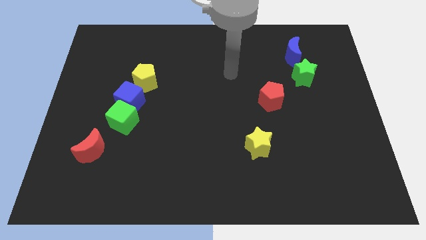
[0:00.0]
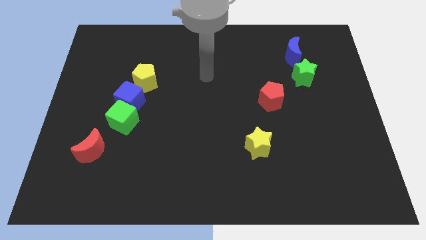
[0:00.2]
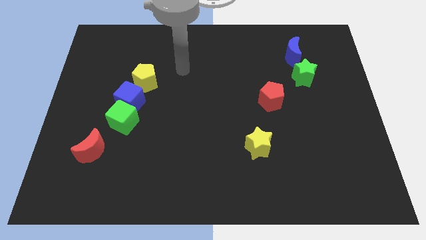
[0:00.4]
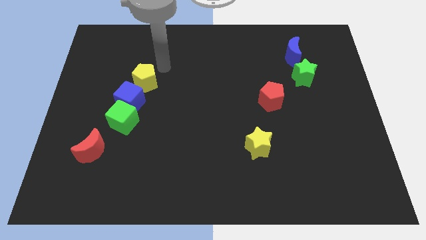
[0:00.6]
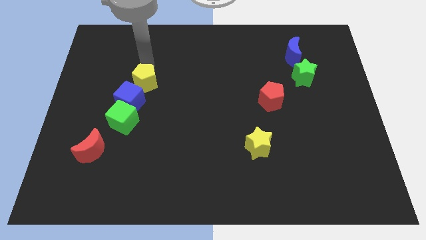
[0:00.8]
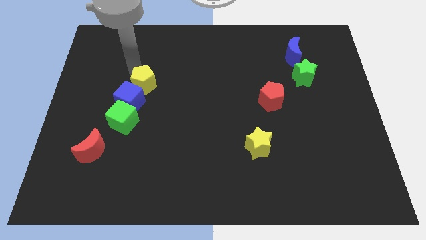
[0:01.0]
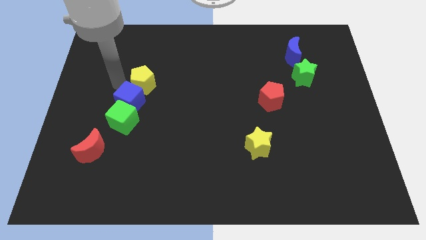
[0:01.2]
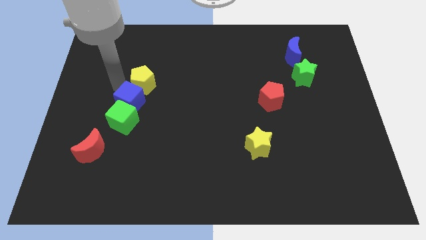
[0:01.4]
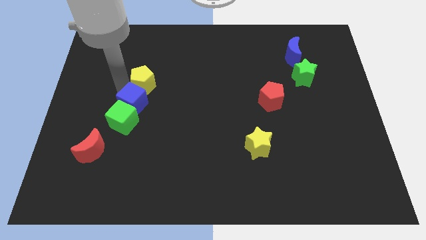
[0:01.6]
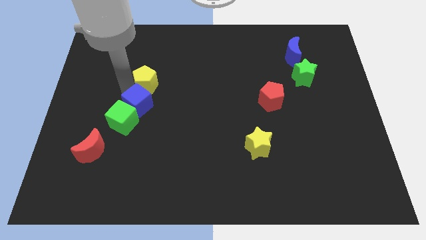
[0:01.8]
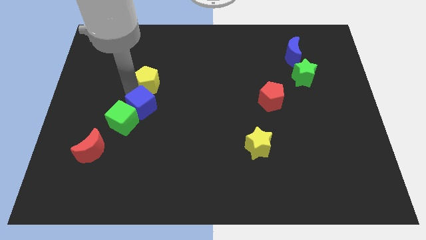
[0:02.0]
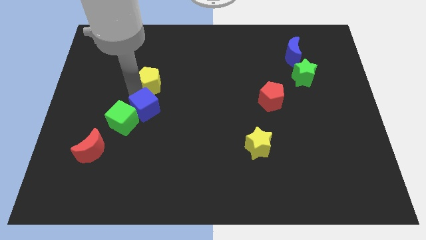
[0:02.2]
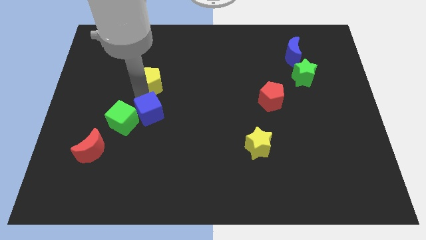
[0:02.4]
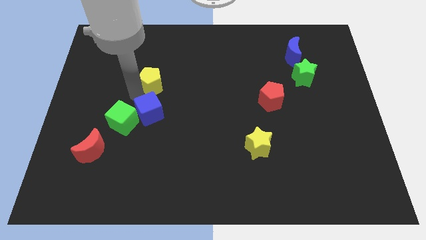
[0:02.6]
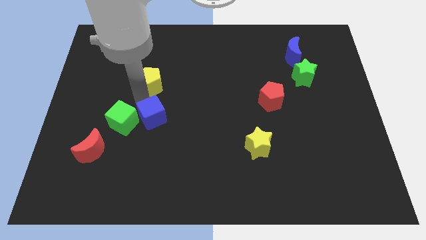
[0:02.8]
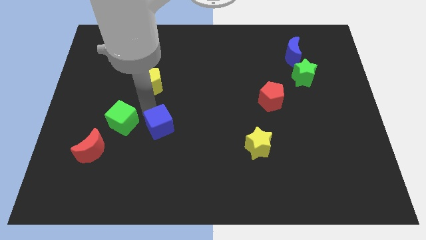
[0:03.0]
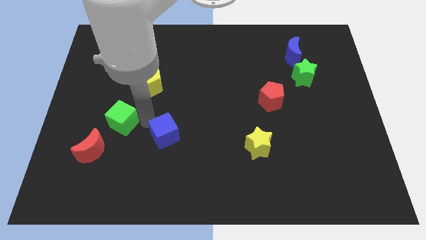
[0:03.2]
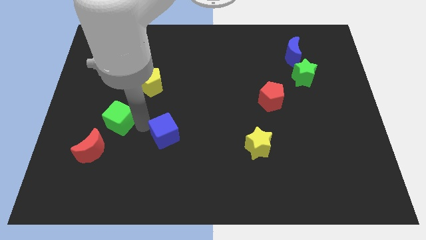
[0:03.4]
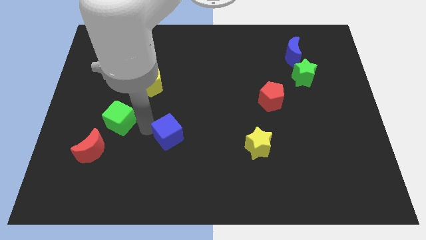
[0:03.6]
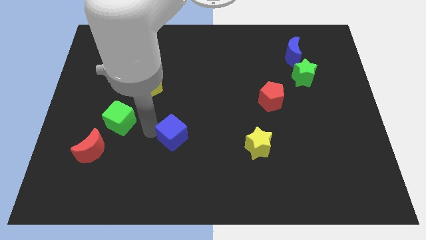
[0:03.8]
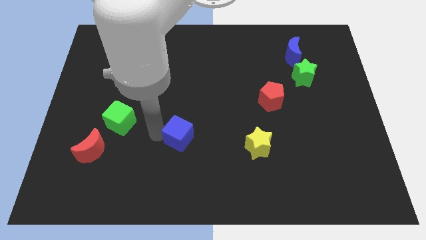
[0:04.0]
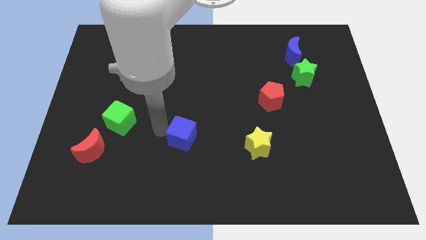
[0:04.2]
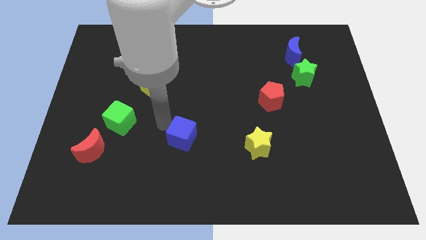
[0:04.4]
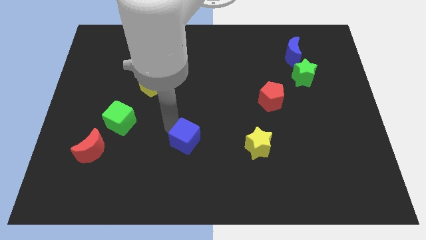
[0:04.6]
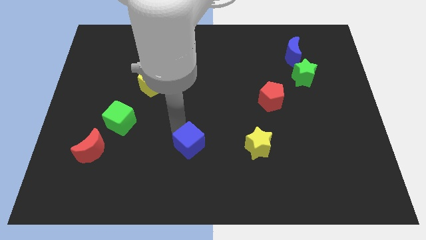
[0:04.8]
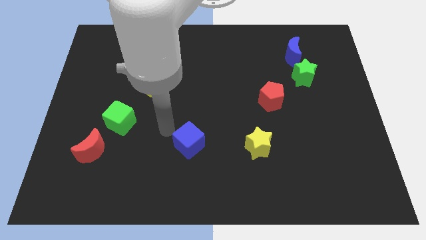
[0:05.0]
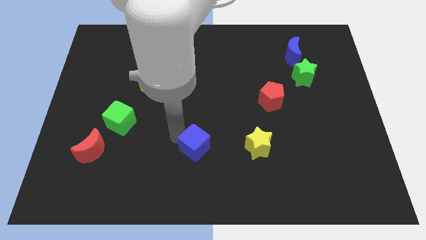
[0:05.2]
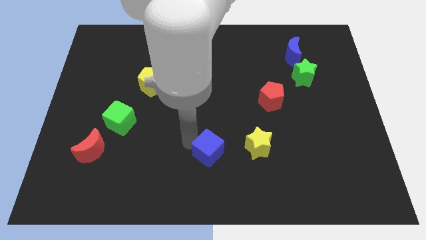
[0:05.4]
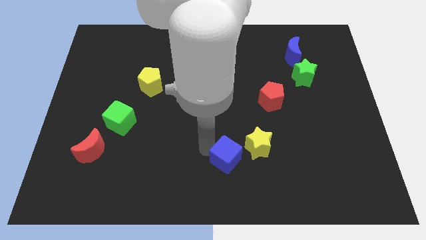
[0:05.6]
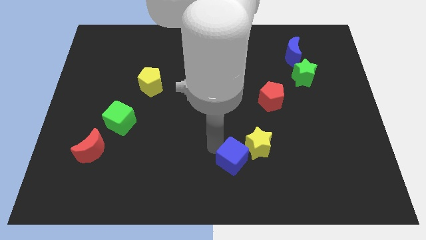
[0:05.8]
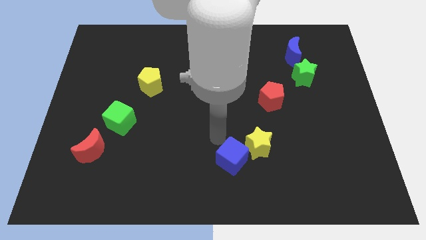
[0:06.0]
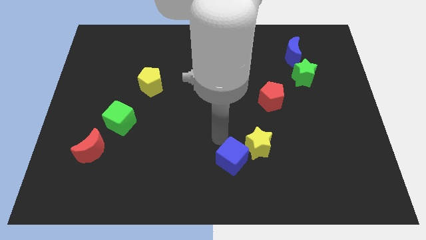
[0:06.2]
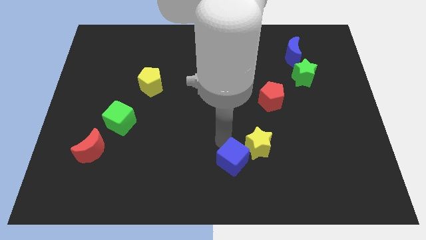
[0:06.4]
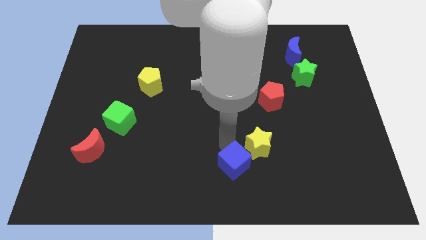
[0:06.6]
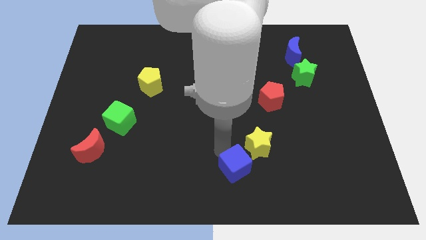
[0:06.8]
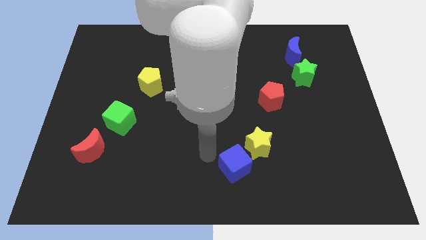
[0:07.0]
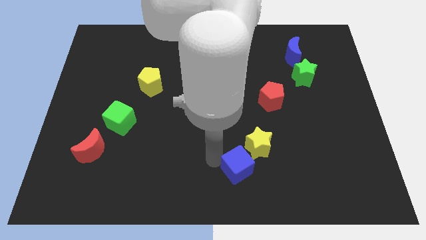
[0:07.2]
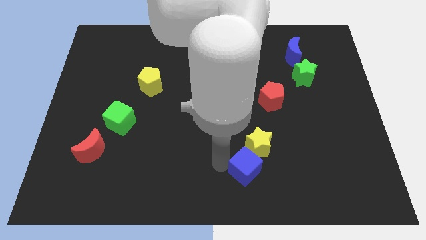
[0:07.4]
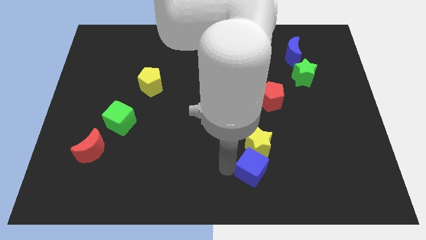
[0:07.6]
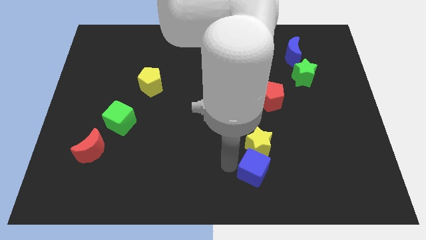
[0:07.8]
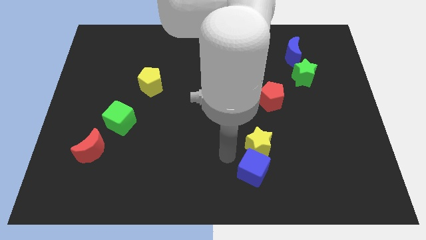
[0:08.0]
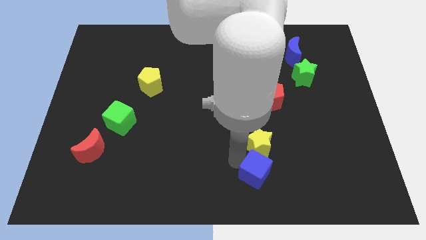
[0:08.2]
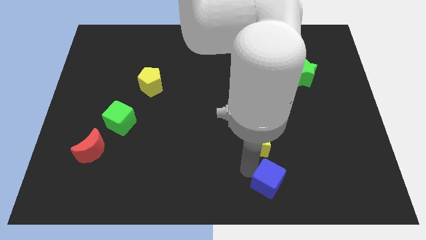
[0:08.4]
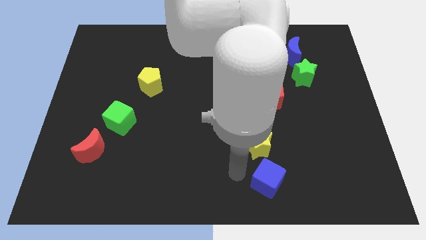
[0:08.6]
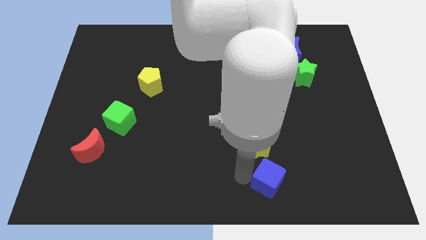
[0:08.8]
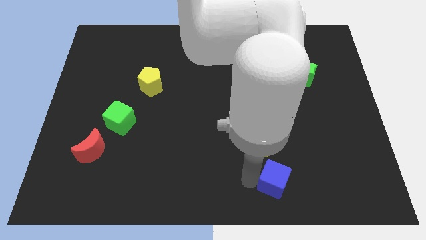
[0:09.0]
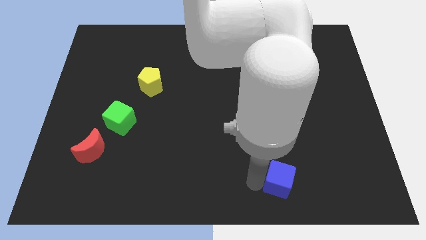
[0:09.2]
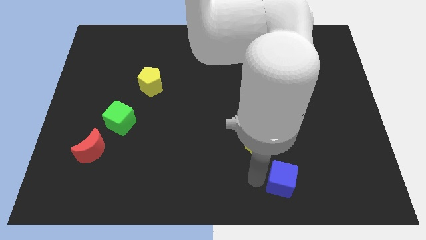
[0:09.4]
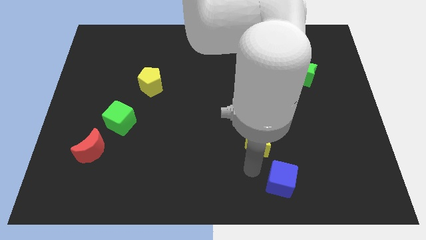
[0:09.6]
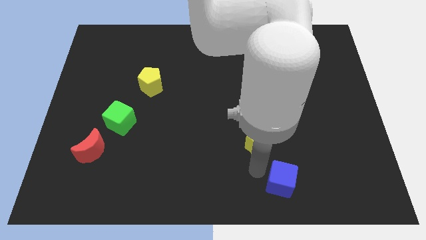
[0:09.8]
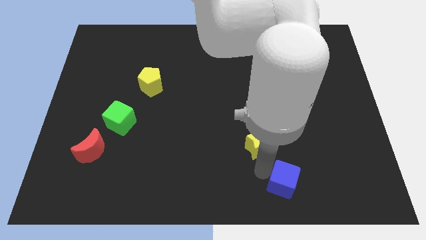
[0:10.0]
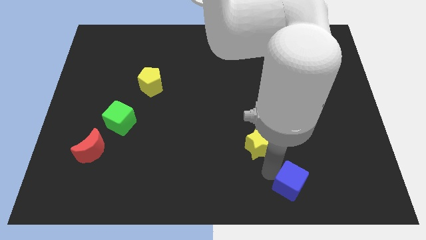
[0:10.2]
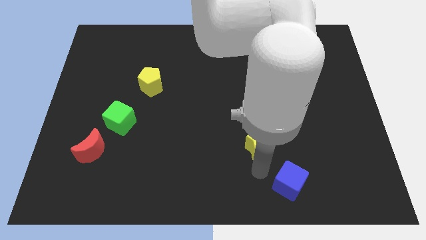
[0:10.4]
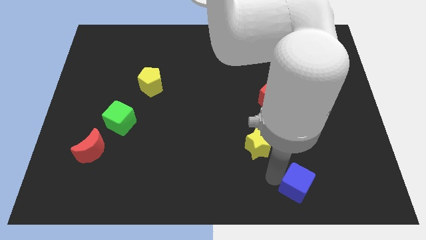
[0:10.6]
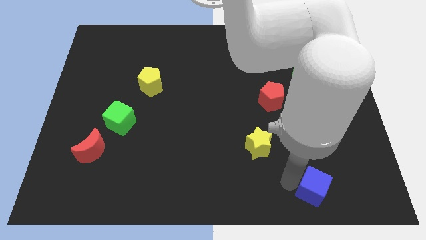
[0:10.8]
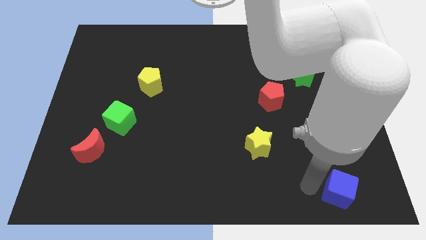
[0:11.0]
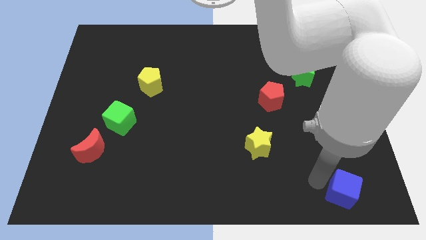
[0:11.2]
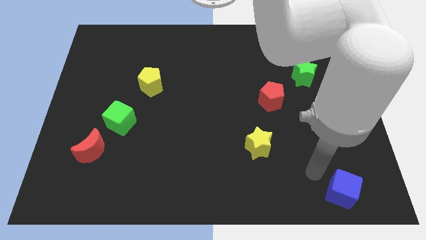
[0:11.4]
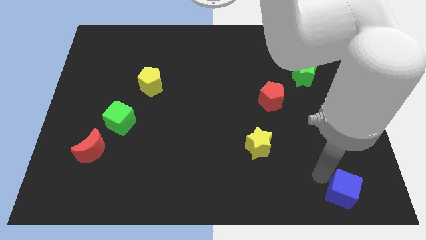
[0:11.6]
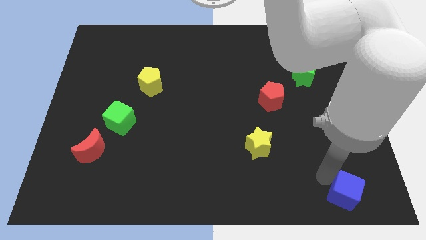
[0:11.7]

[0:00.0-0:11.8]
put the blue cube to the bottom right
